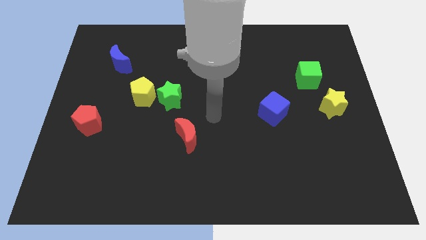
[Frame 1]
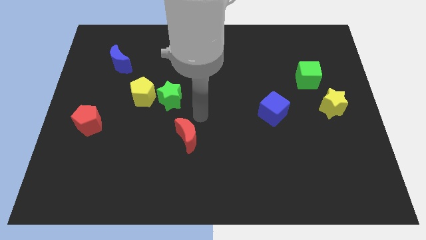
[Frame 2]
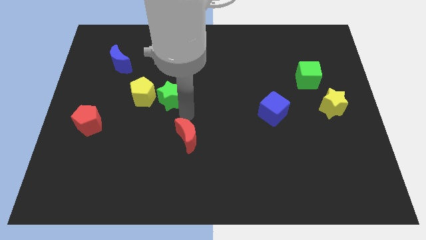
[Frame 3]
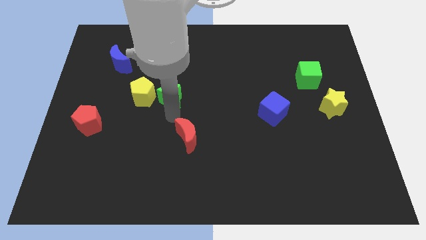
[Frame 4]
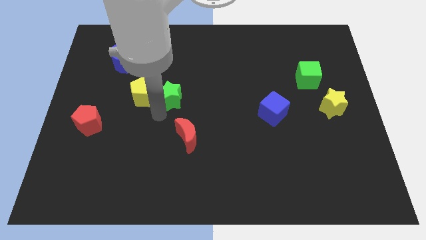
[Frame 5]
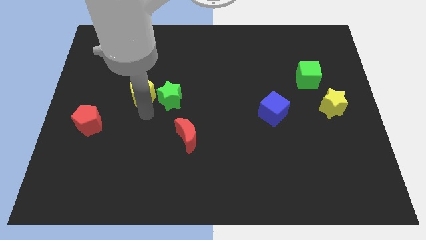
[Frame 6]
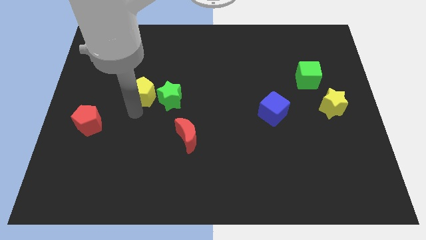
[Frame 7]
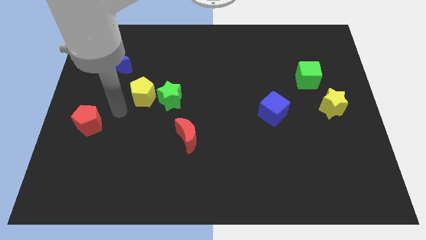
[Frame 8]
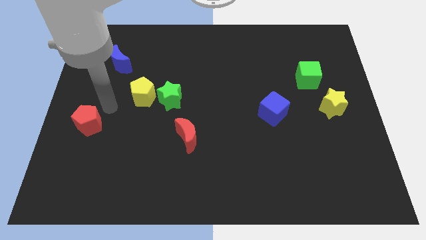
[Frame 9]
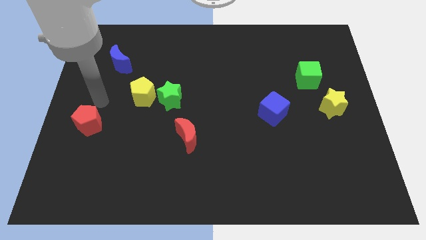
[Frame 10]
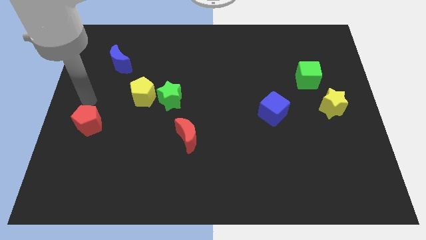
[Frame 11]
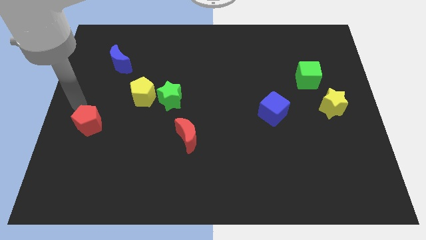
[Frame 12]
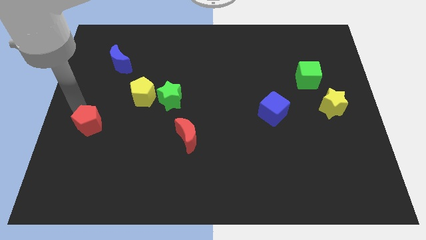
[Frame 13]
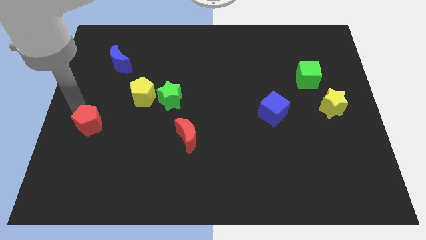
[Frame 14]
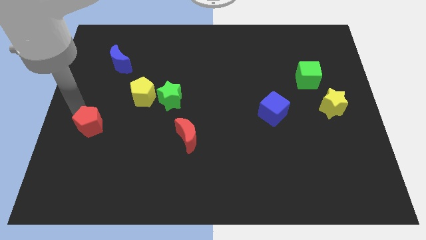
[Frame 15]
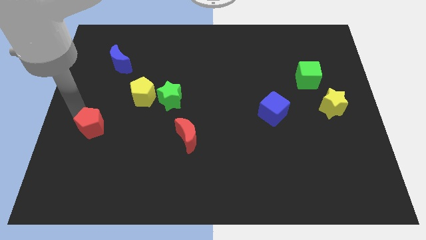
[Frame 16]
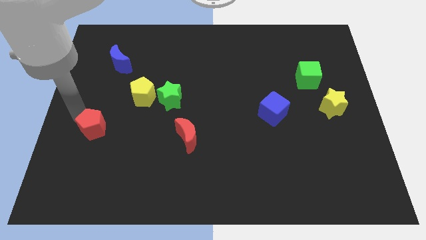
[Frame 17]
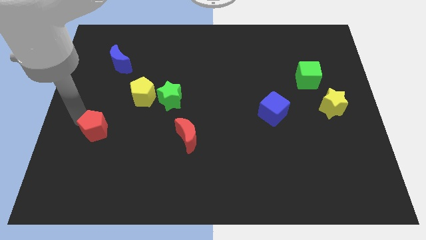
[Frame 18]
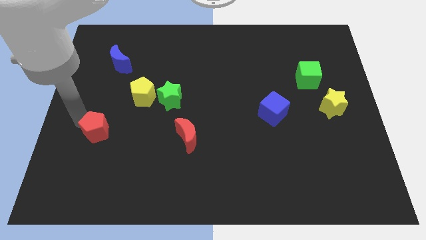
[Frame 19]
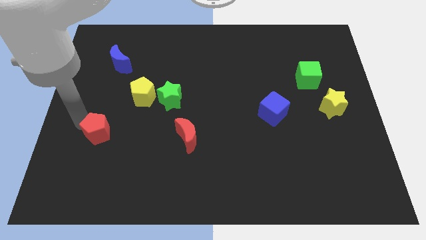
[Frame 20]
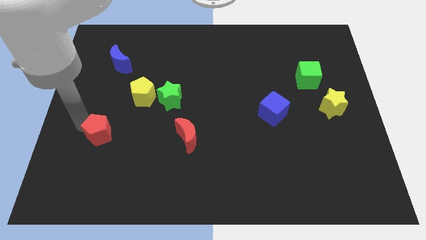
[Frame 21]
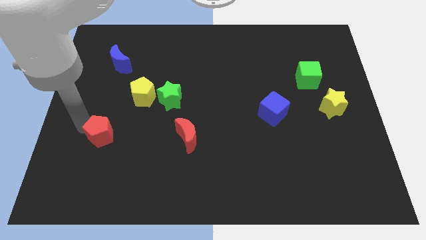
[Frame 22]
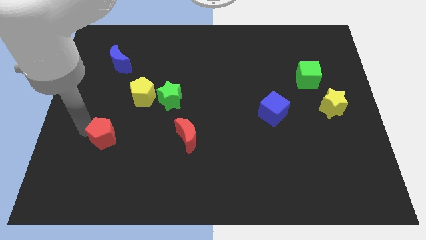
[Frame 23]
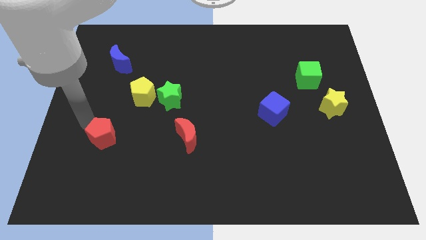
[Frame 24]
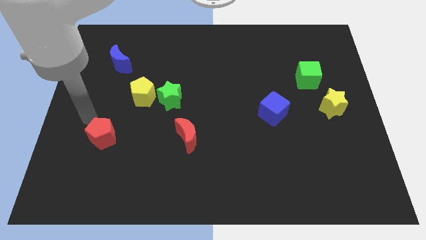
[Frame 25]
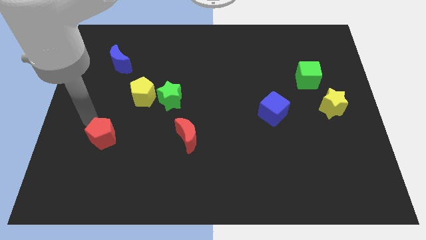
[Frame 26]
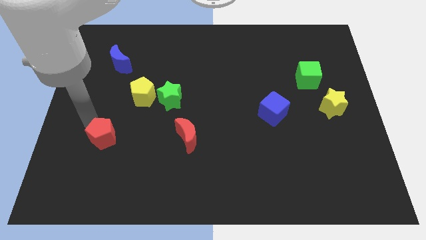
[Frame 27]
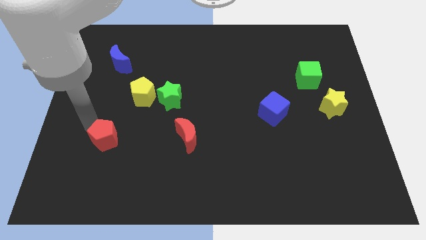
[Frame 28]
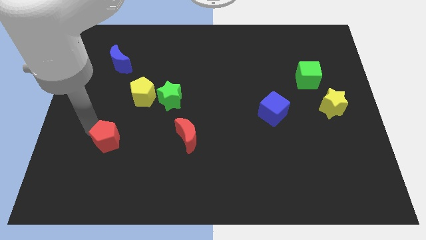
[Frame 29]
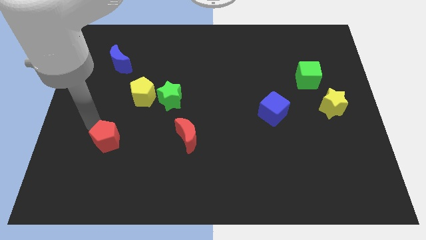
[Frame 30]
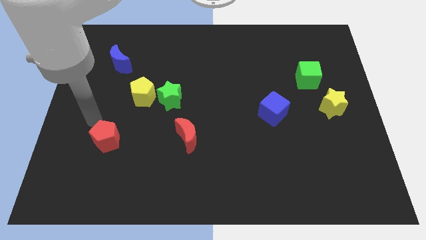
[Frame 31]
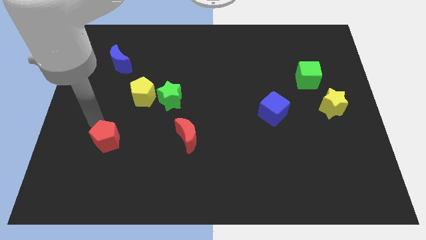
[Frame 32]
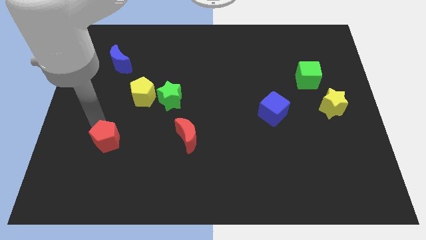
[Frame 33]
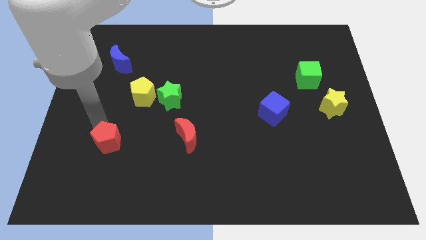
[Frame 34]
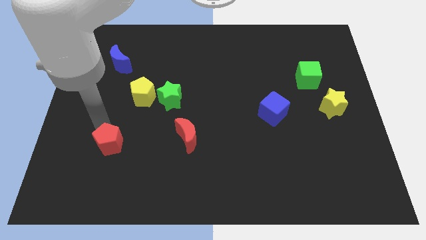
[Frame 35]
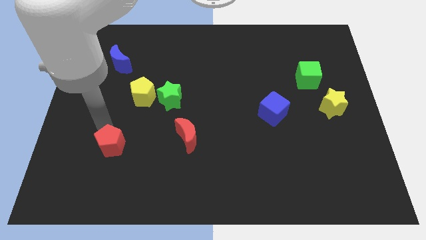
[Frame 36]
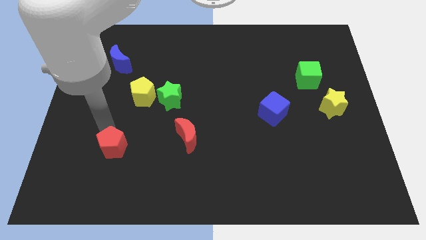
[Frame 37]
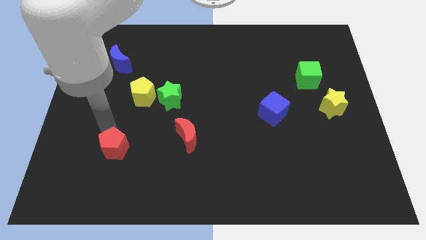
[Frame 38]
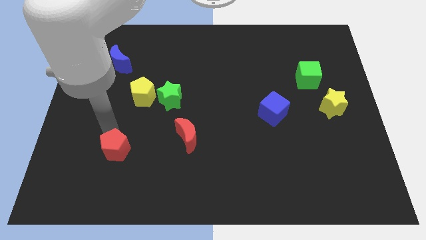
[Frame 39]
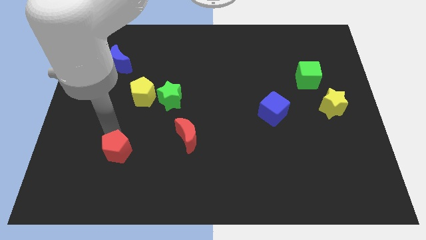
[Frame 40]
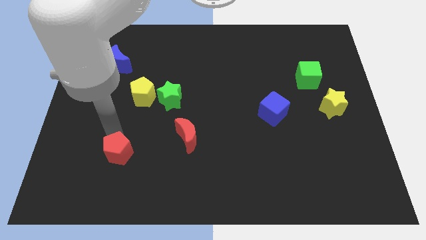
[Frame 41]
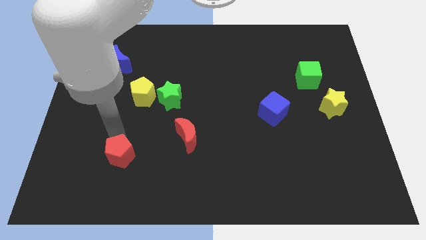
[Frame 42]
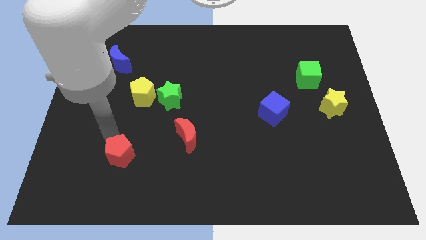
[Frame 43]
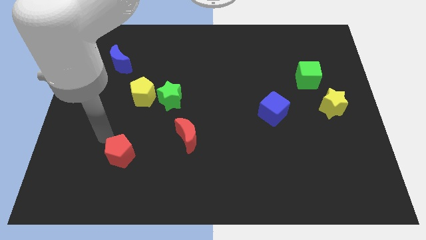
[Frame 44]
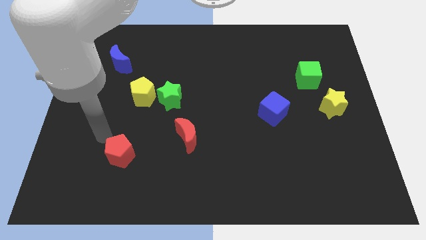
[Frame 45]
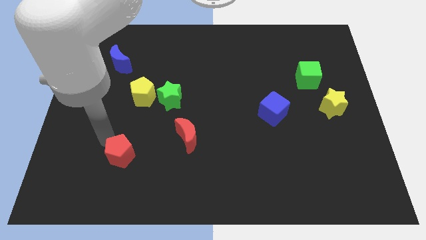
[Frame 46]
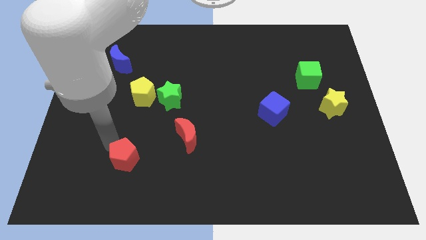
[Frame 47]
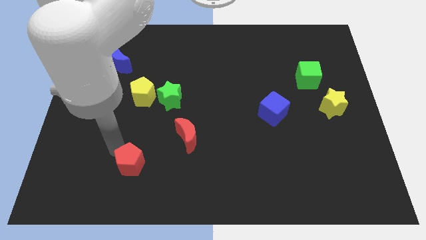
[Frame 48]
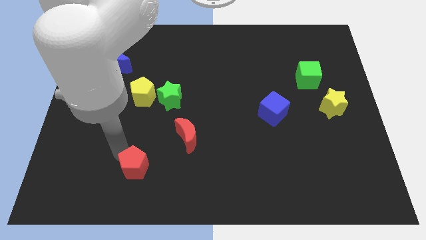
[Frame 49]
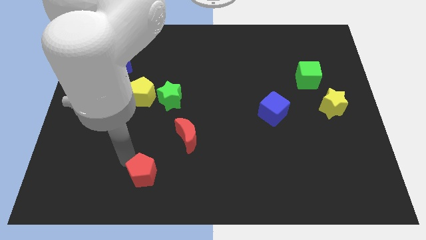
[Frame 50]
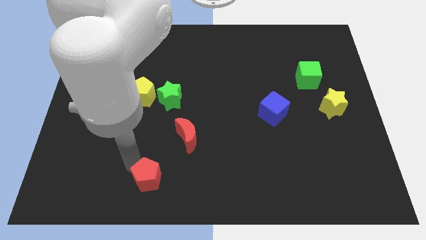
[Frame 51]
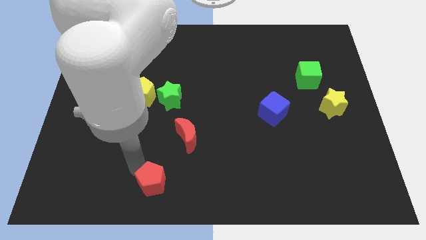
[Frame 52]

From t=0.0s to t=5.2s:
slide the red pentagon to the bottom

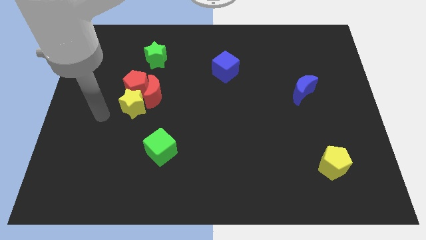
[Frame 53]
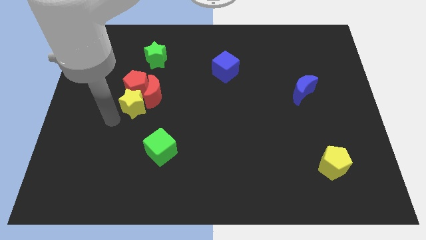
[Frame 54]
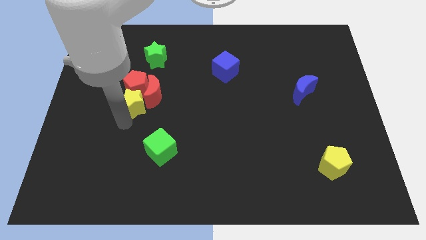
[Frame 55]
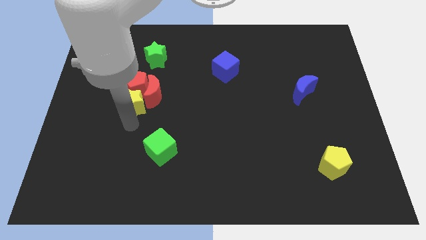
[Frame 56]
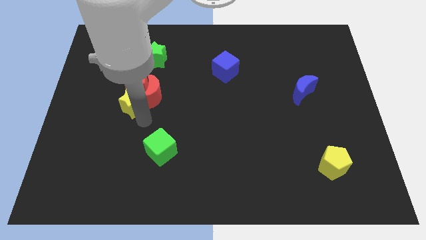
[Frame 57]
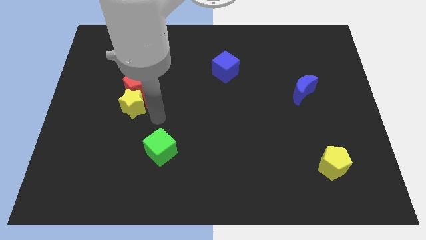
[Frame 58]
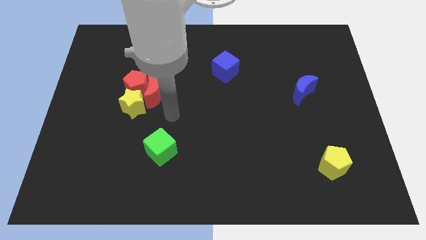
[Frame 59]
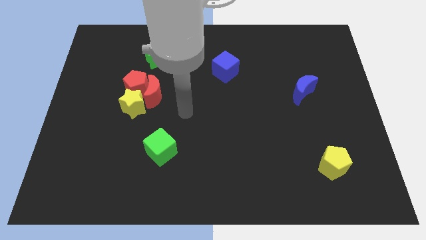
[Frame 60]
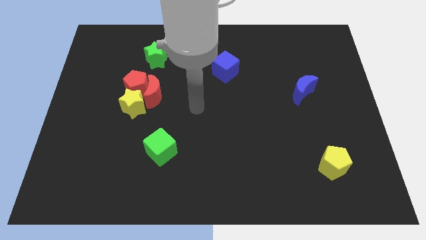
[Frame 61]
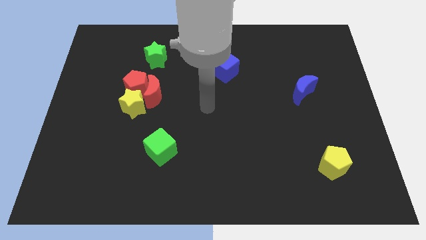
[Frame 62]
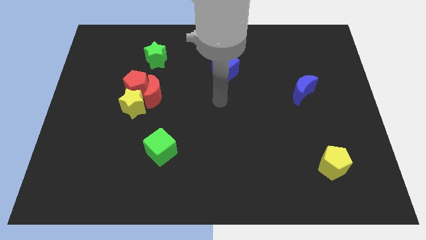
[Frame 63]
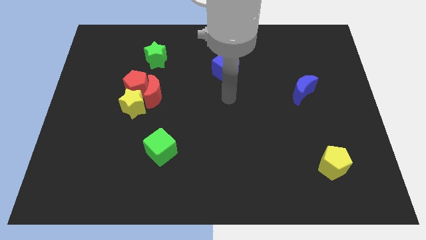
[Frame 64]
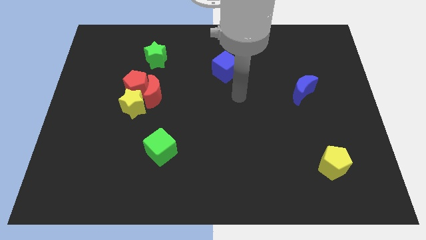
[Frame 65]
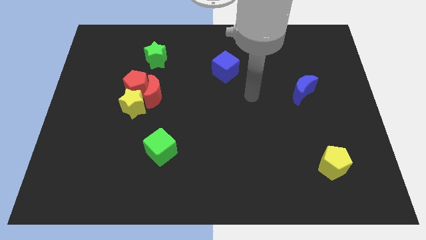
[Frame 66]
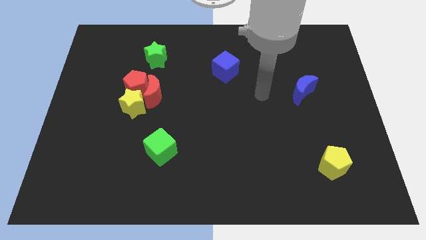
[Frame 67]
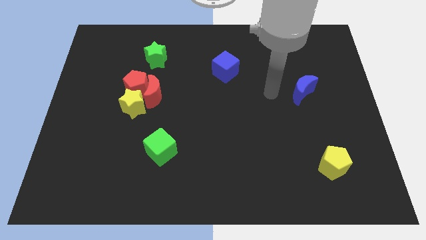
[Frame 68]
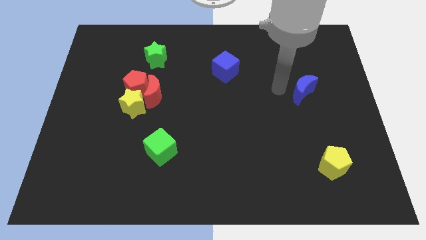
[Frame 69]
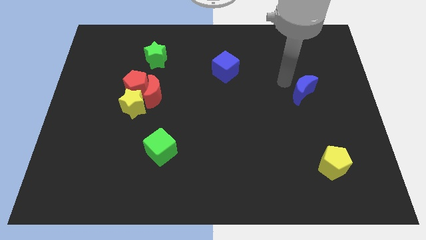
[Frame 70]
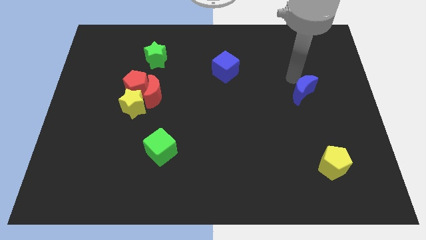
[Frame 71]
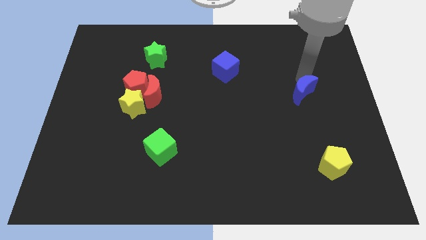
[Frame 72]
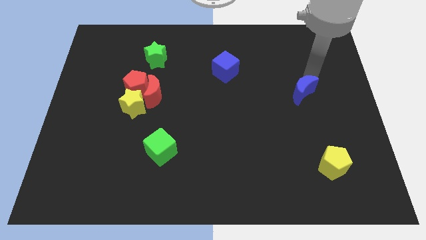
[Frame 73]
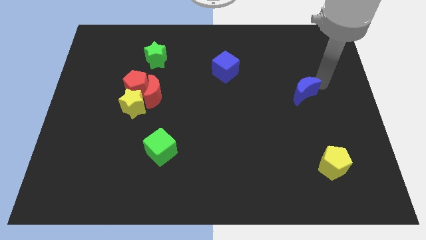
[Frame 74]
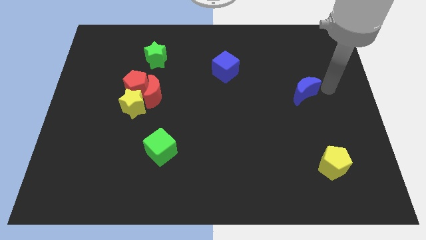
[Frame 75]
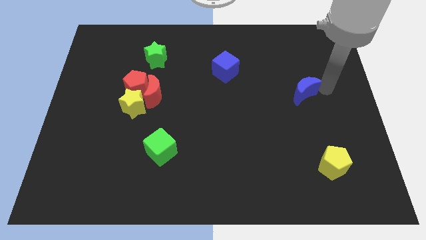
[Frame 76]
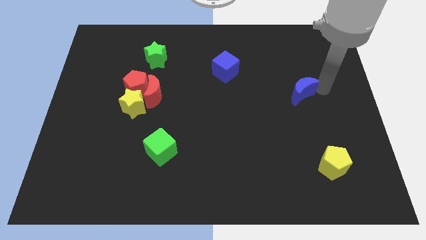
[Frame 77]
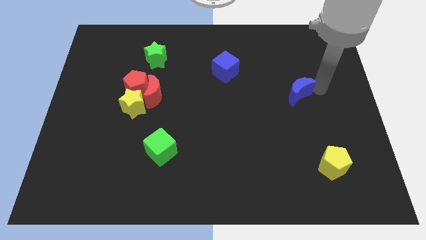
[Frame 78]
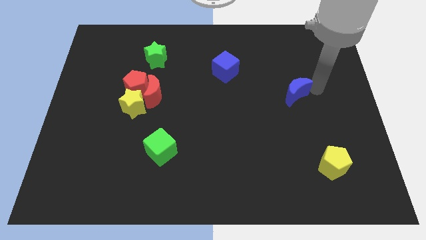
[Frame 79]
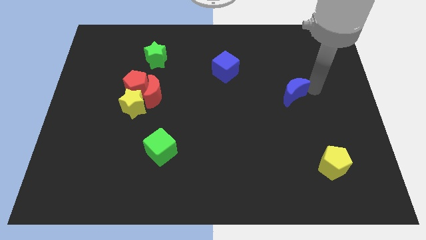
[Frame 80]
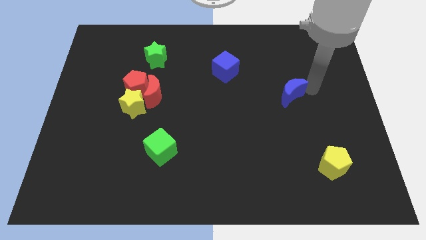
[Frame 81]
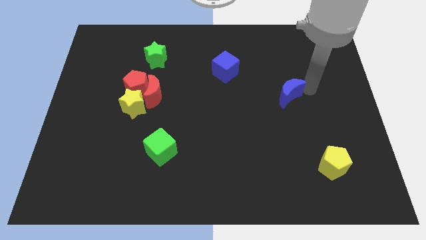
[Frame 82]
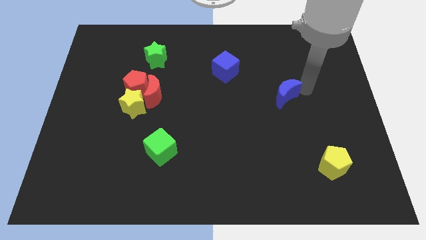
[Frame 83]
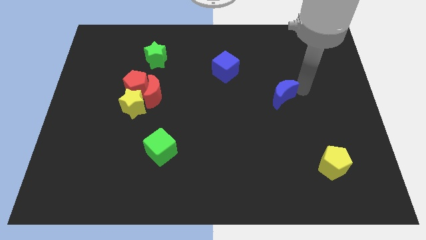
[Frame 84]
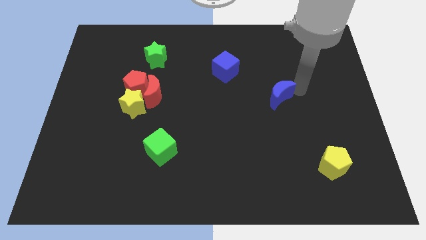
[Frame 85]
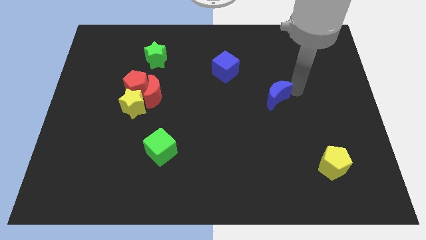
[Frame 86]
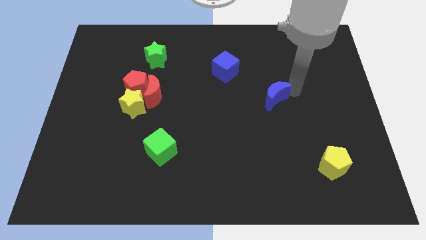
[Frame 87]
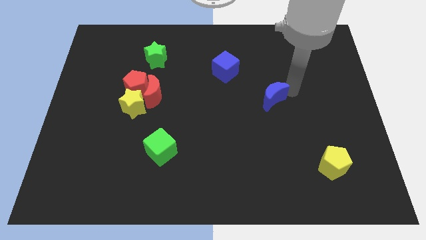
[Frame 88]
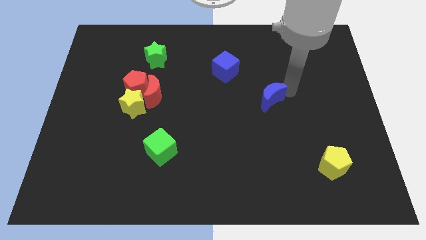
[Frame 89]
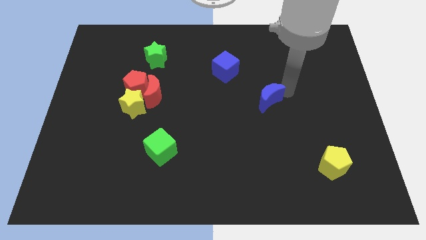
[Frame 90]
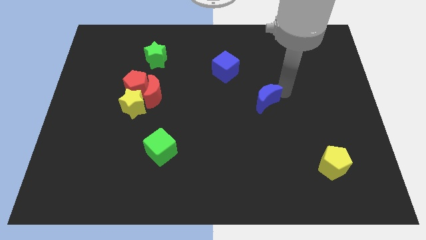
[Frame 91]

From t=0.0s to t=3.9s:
move the blue moon to the center
